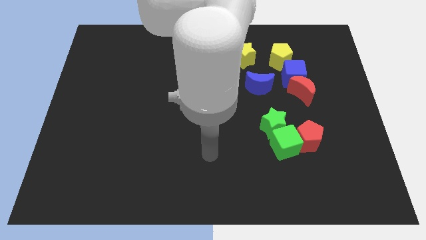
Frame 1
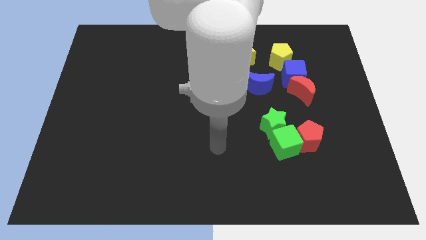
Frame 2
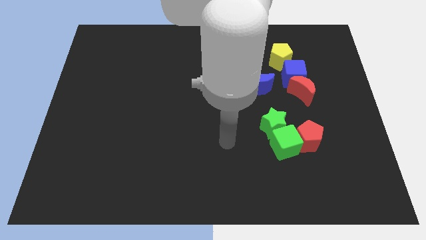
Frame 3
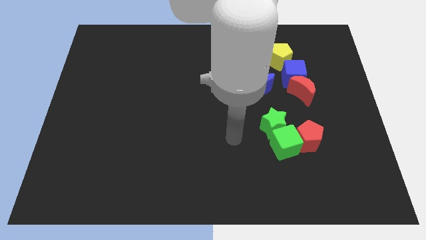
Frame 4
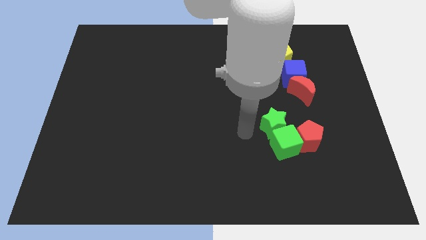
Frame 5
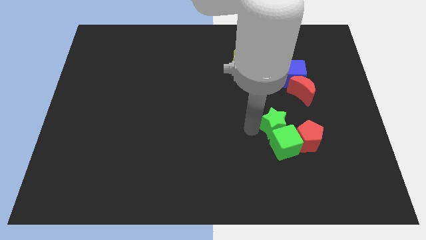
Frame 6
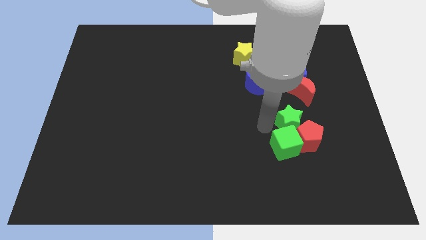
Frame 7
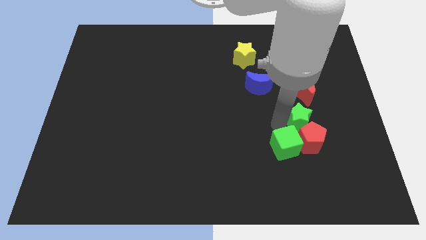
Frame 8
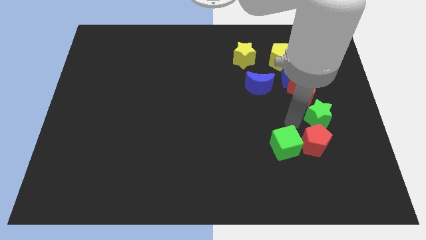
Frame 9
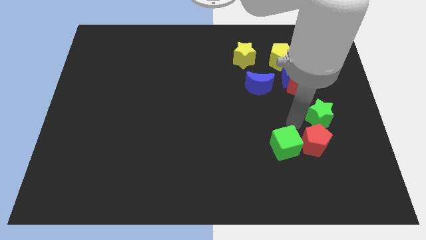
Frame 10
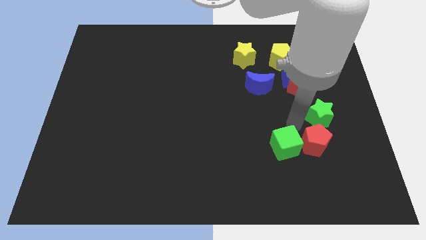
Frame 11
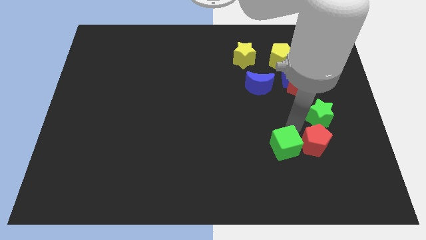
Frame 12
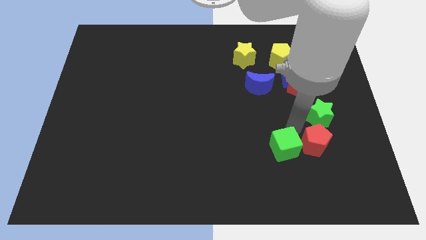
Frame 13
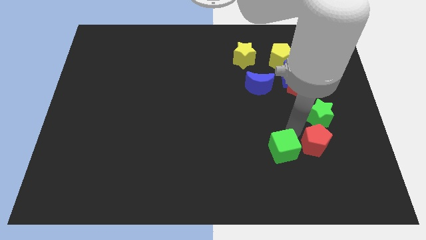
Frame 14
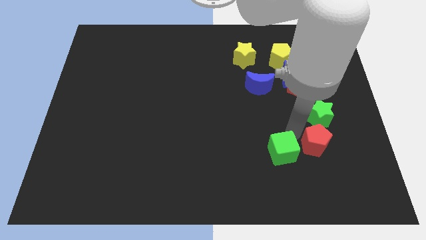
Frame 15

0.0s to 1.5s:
move the green cube away from the green star and red pentagon

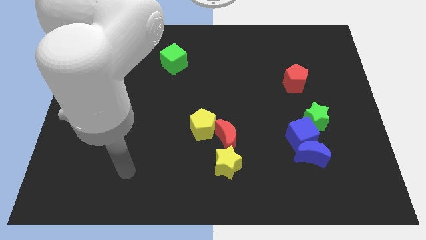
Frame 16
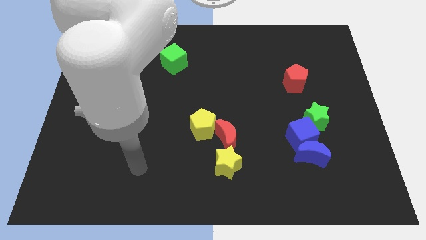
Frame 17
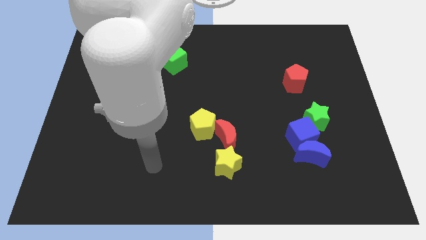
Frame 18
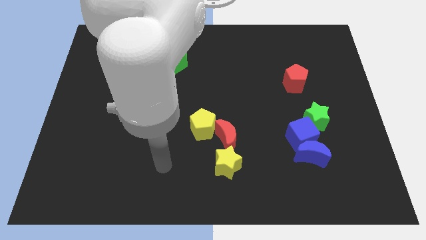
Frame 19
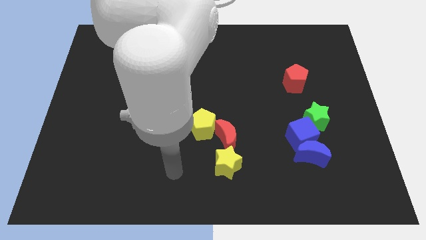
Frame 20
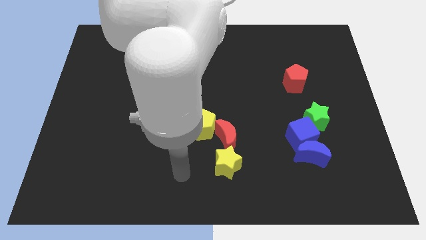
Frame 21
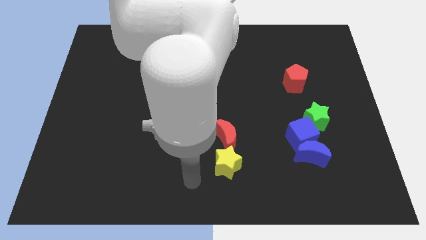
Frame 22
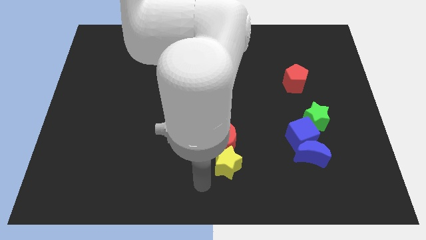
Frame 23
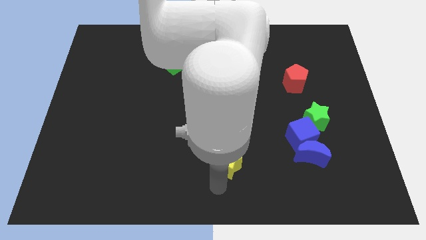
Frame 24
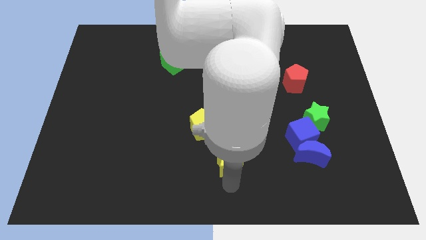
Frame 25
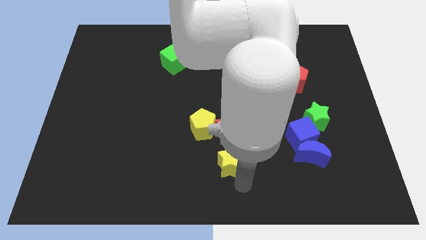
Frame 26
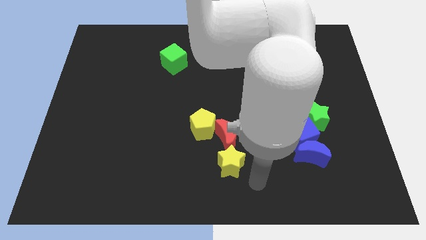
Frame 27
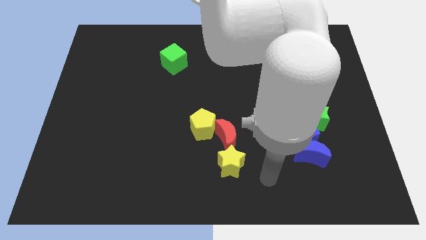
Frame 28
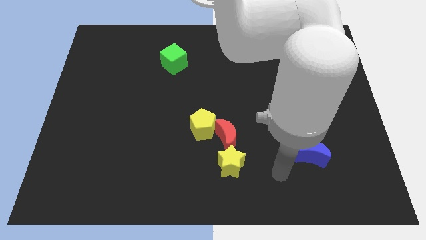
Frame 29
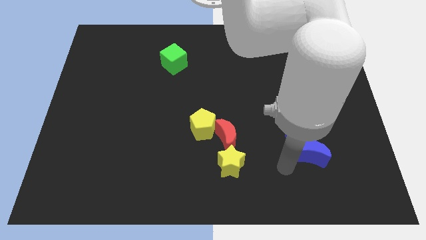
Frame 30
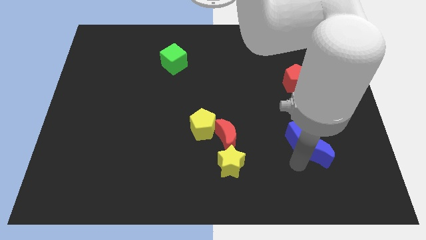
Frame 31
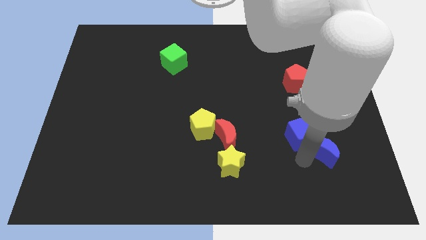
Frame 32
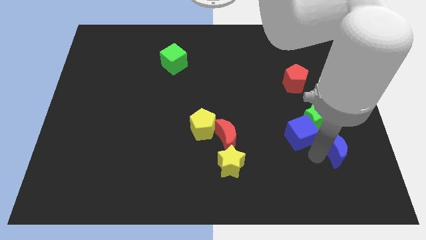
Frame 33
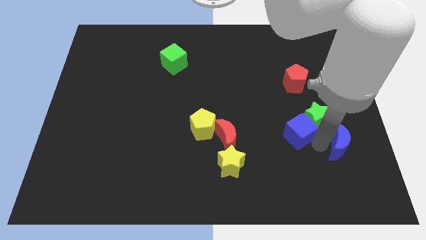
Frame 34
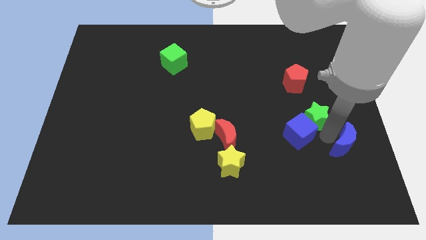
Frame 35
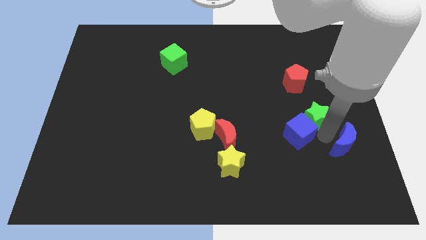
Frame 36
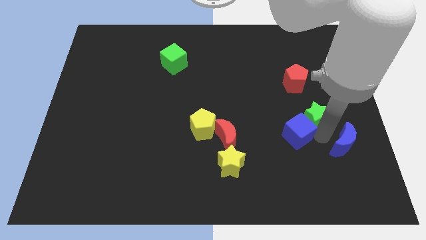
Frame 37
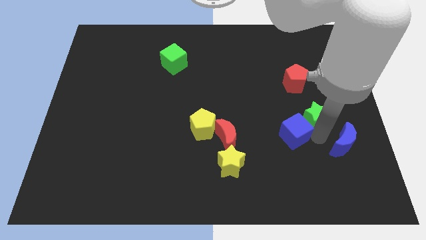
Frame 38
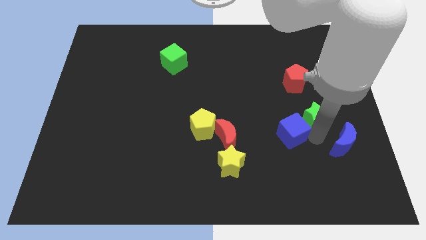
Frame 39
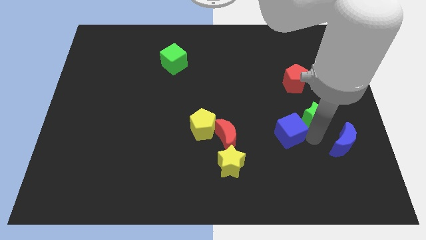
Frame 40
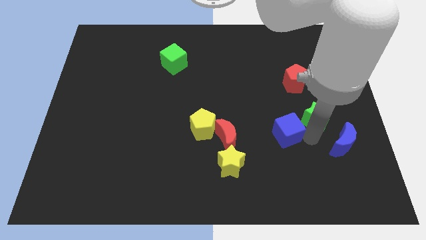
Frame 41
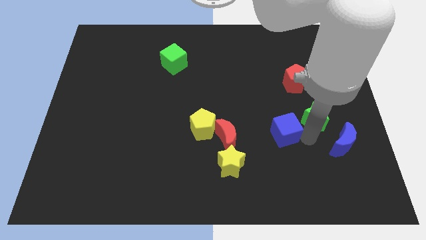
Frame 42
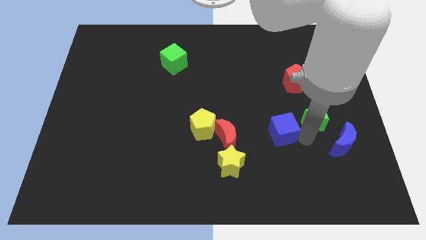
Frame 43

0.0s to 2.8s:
move the blue cube away from the blue moon and green star

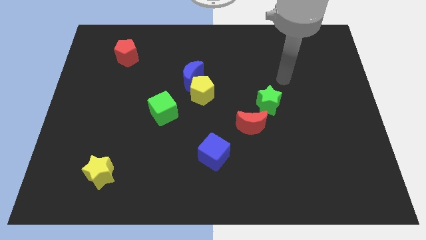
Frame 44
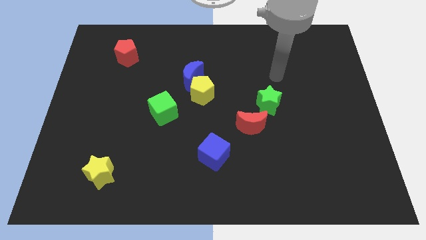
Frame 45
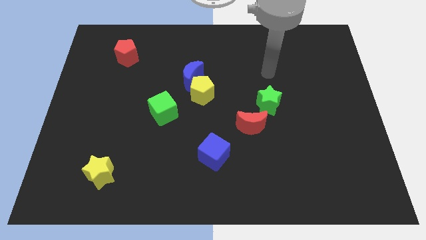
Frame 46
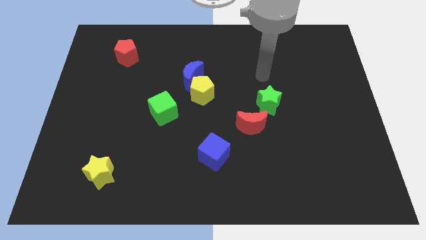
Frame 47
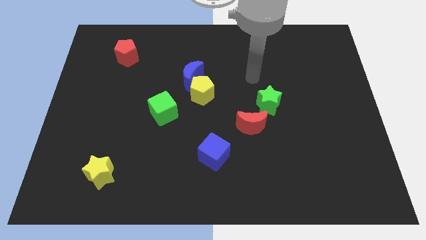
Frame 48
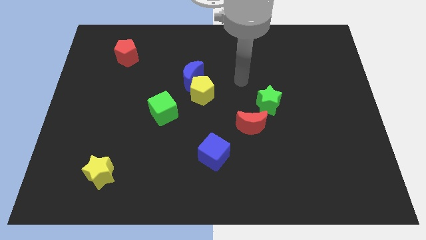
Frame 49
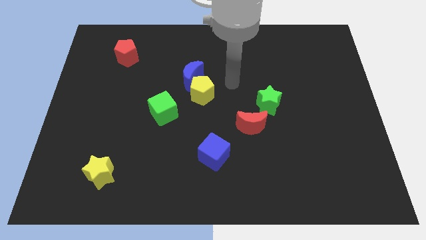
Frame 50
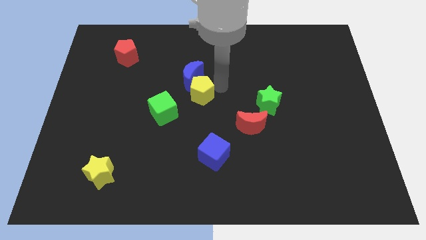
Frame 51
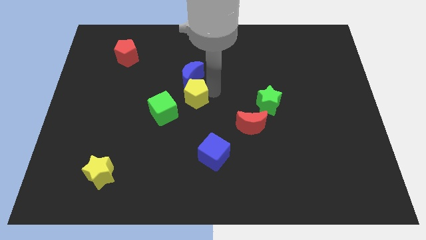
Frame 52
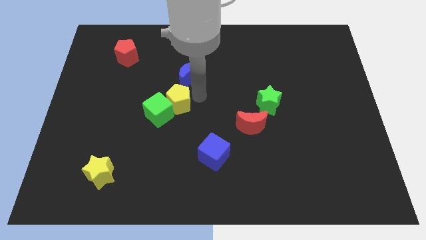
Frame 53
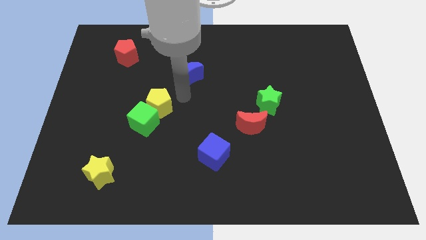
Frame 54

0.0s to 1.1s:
separate the blue moon from the yellow pentagon

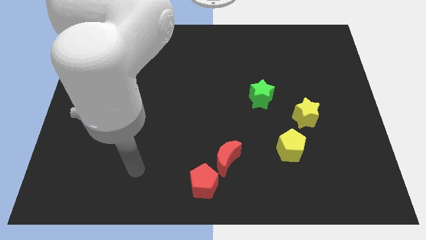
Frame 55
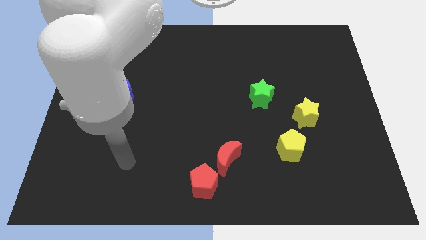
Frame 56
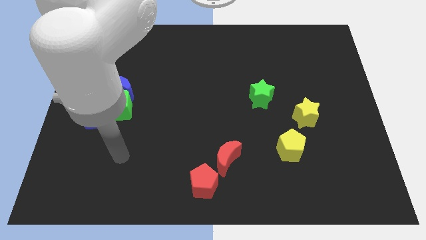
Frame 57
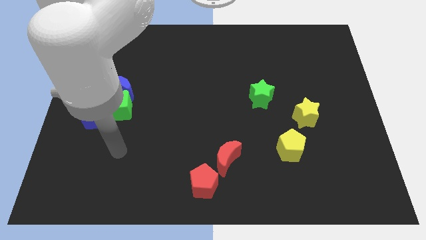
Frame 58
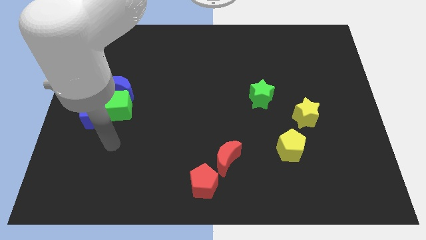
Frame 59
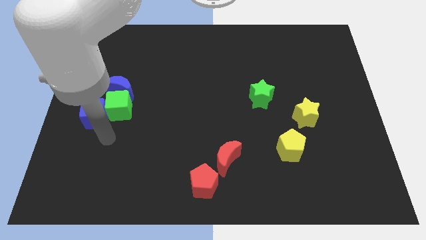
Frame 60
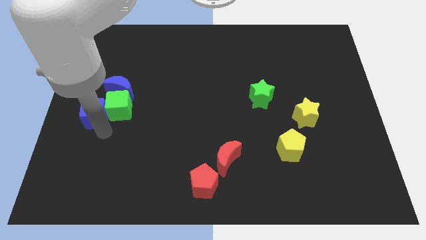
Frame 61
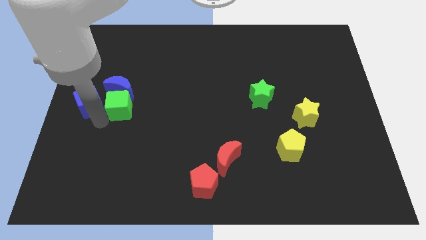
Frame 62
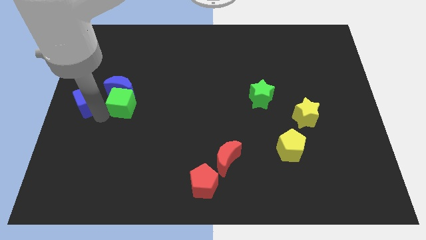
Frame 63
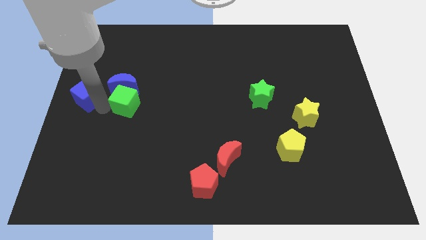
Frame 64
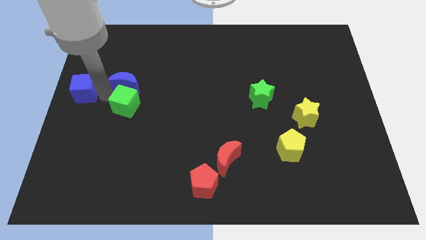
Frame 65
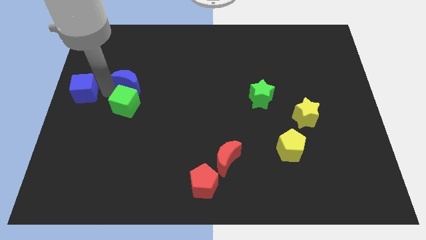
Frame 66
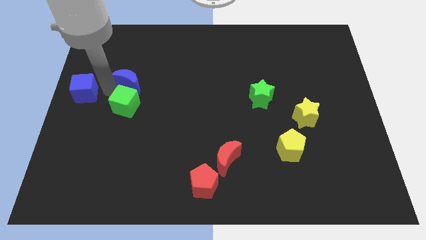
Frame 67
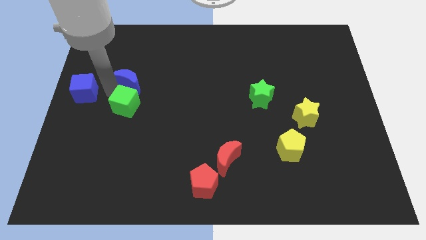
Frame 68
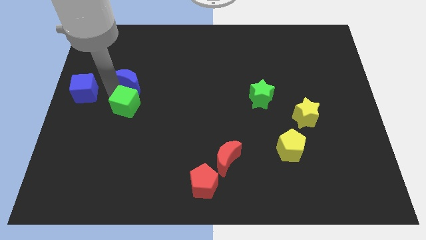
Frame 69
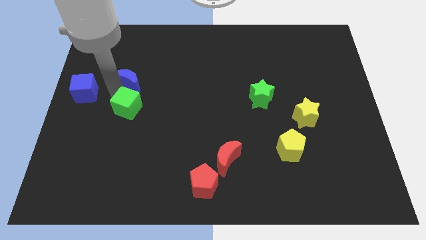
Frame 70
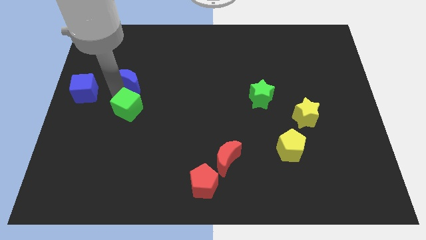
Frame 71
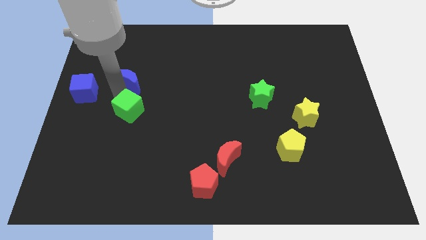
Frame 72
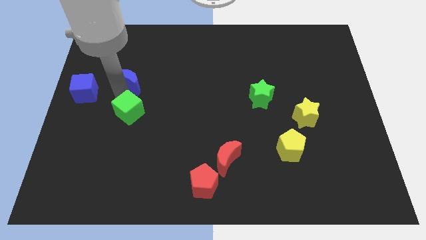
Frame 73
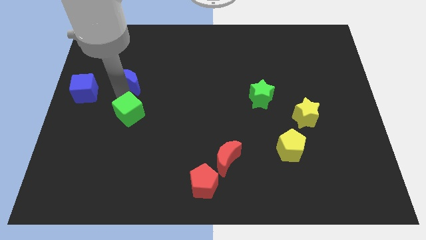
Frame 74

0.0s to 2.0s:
move the green cube away from the blue moon and blue cube

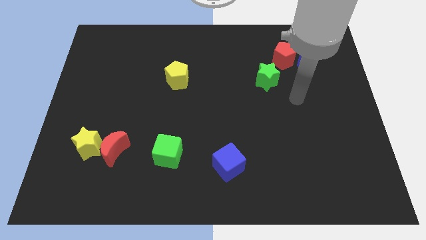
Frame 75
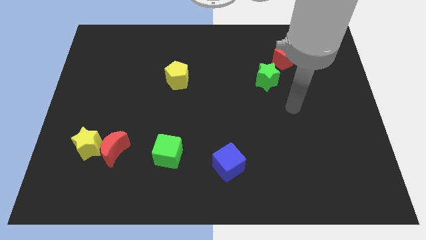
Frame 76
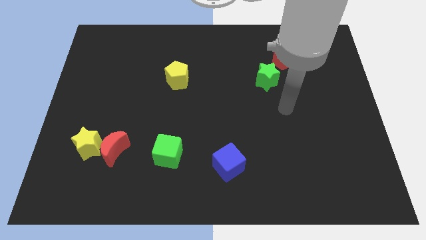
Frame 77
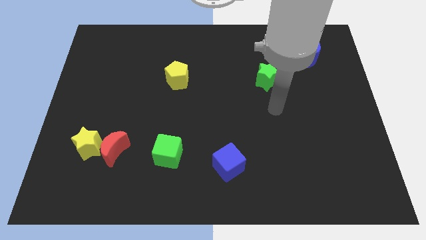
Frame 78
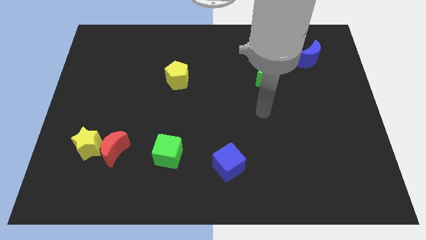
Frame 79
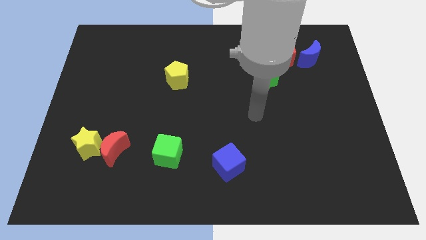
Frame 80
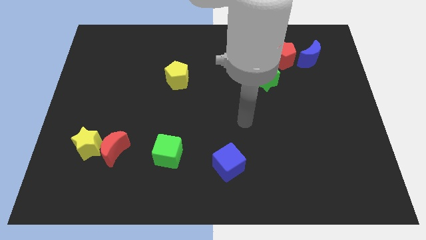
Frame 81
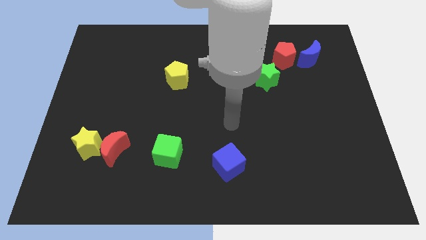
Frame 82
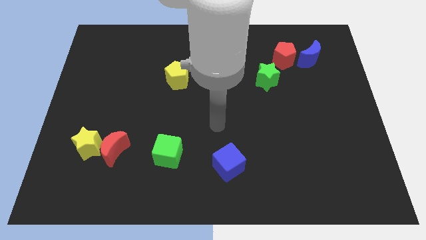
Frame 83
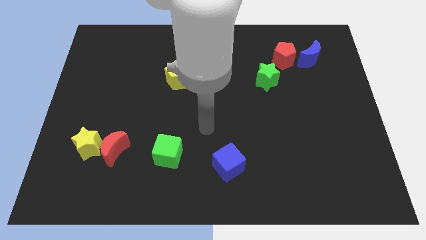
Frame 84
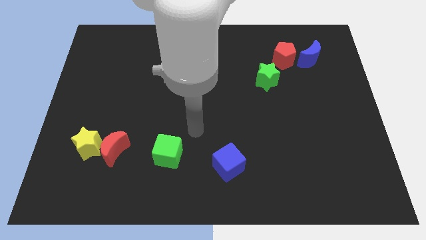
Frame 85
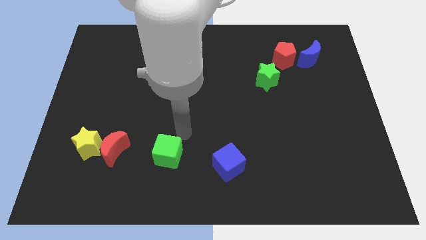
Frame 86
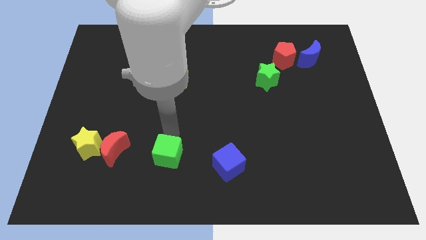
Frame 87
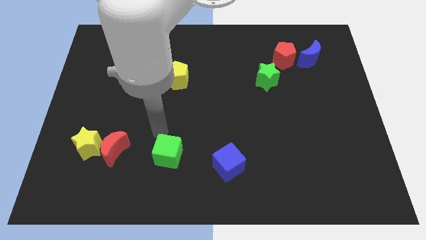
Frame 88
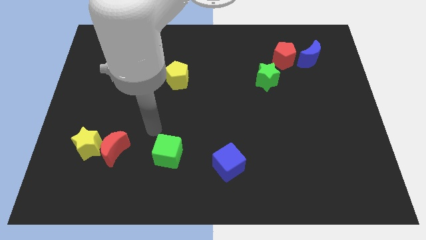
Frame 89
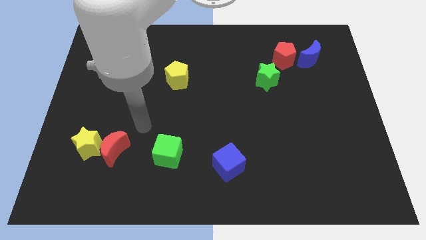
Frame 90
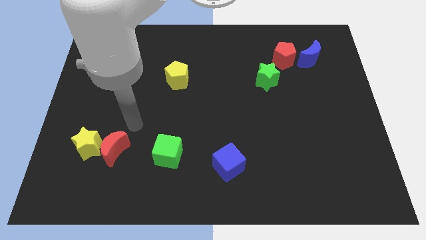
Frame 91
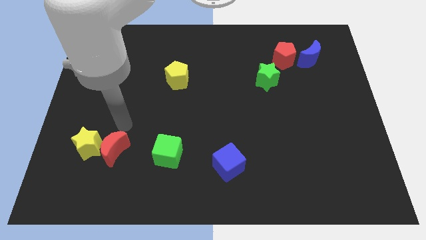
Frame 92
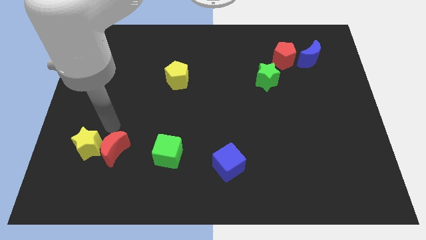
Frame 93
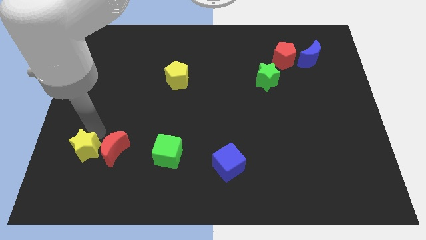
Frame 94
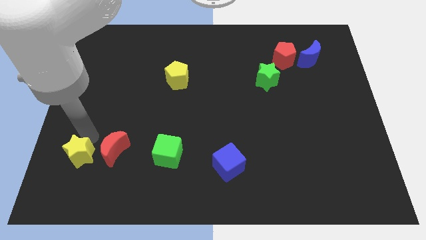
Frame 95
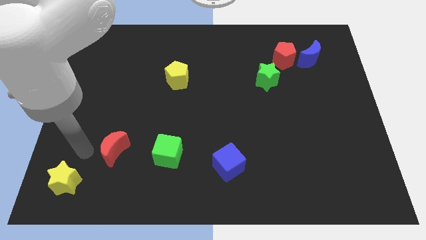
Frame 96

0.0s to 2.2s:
move the red moon away from the yellow star
